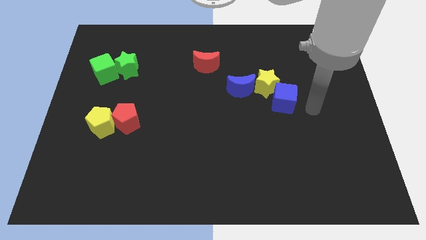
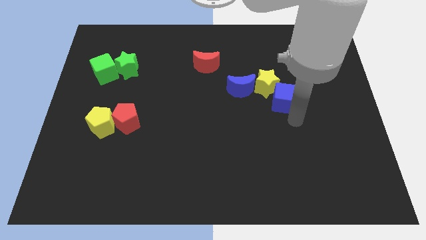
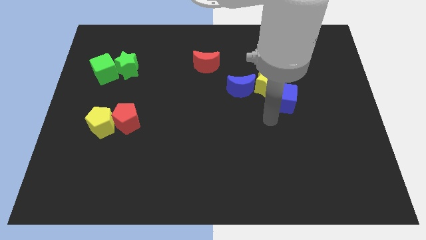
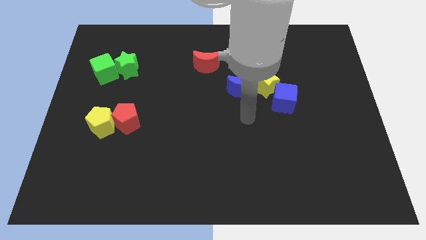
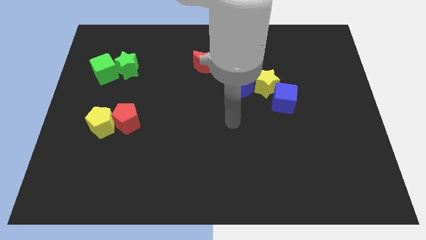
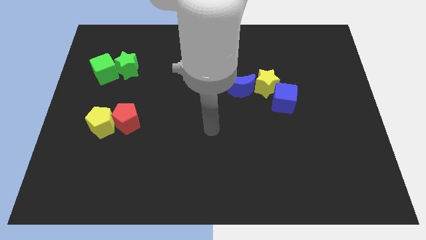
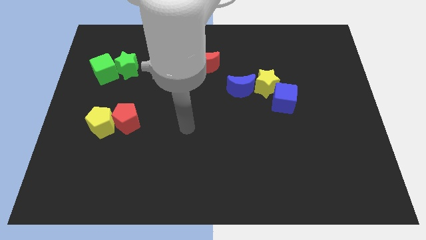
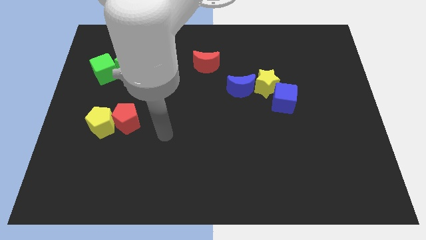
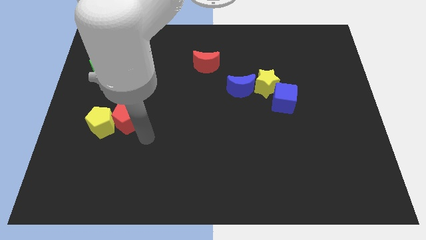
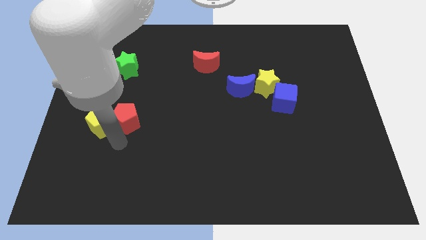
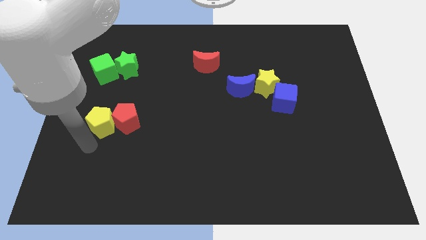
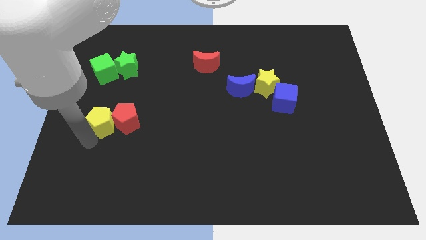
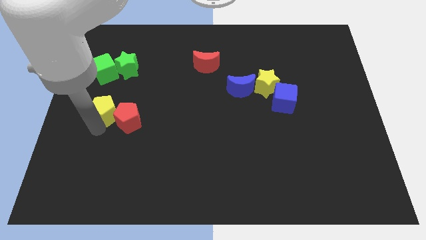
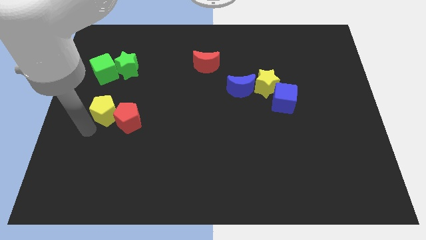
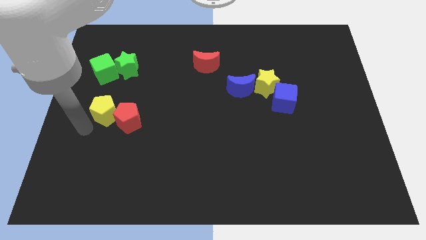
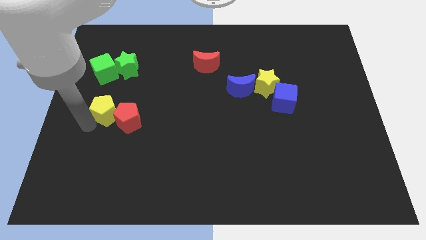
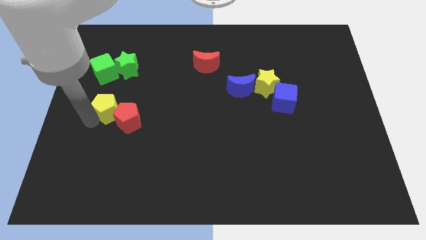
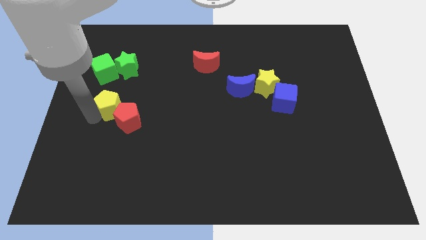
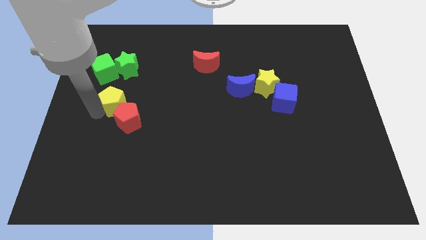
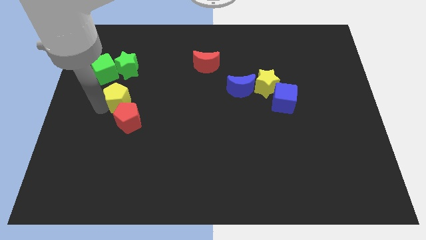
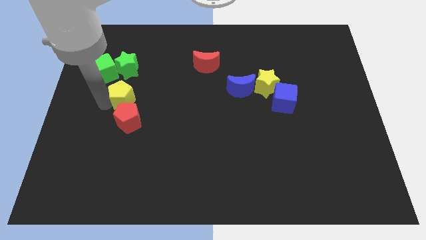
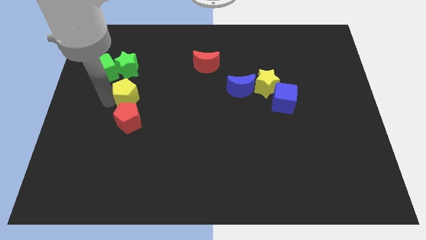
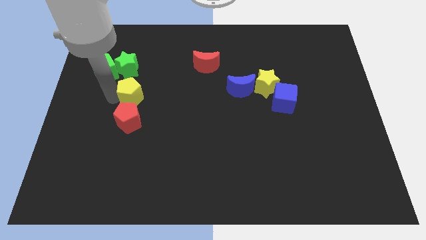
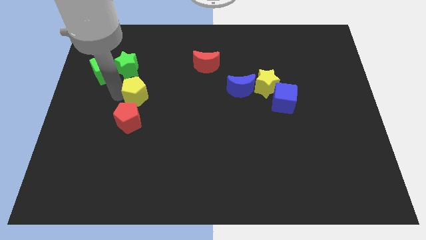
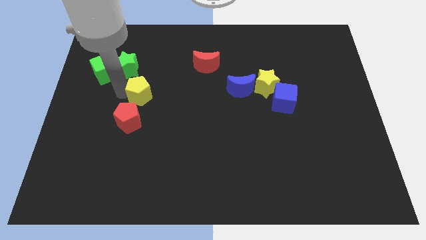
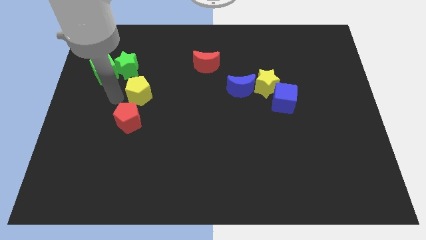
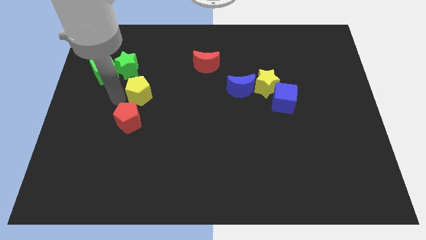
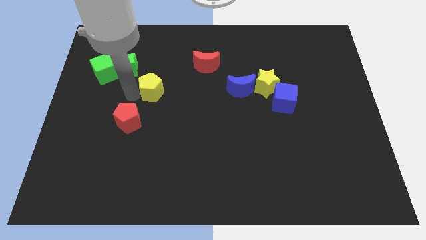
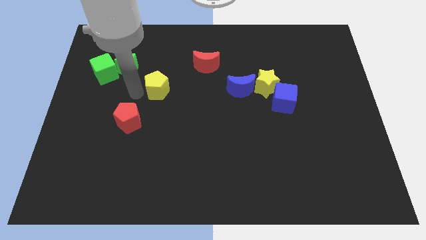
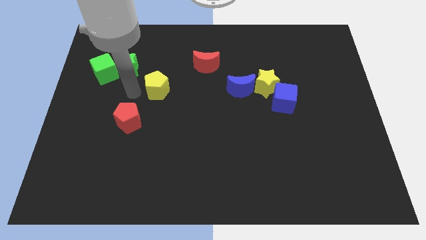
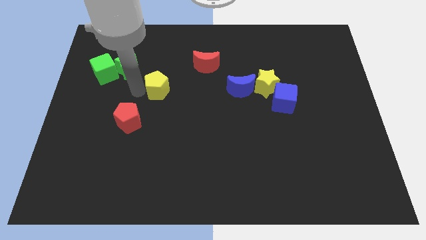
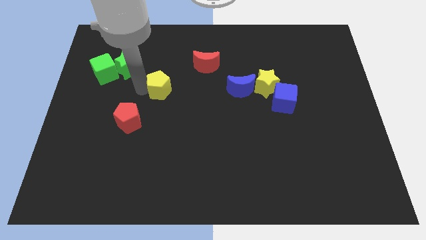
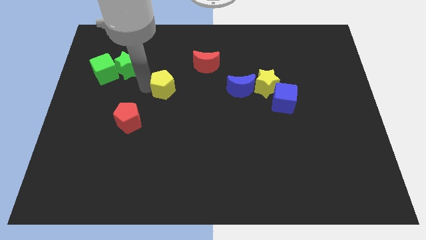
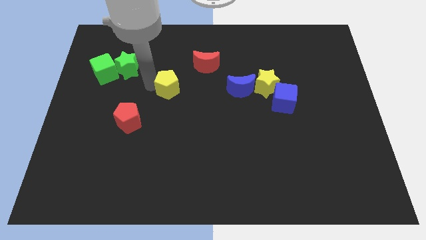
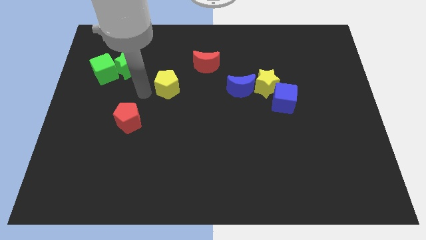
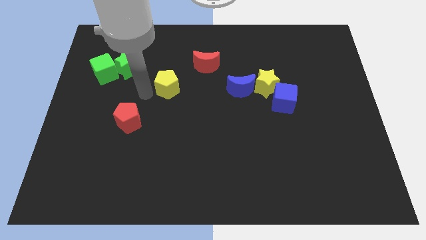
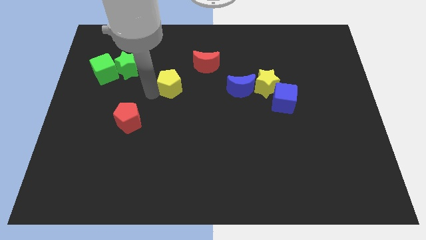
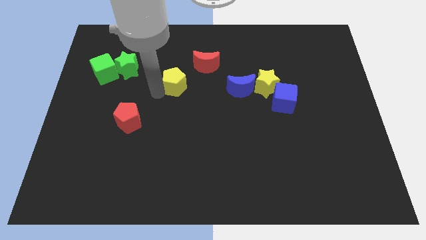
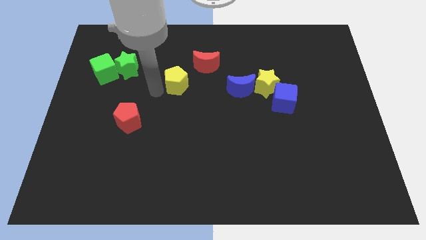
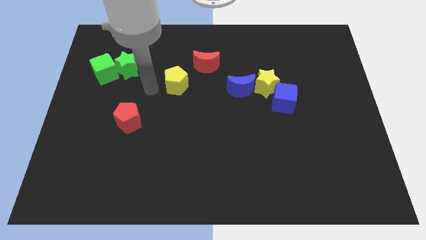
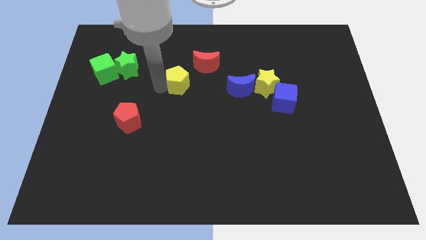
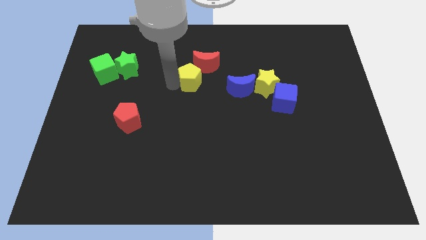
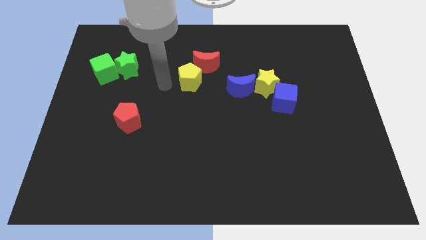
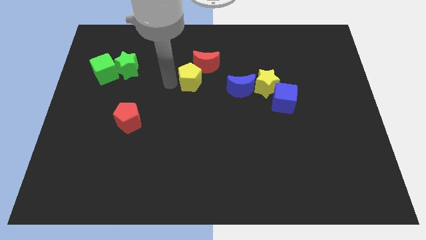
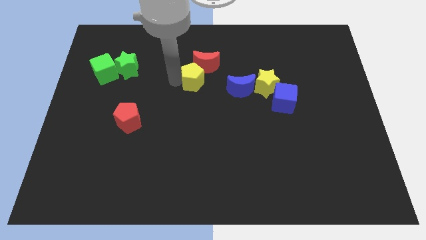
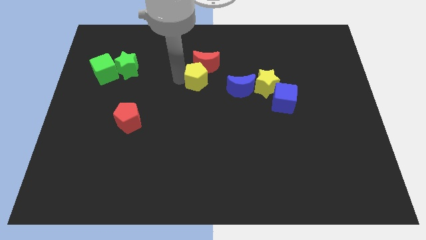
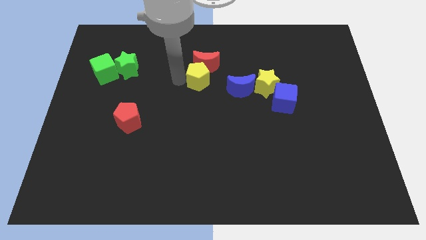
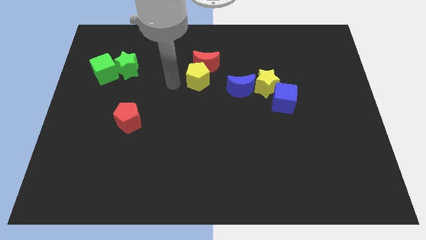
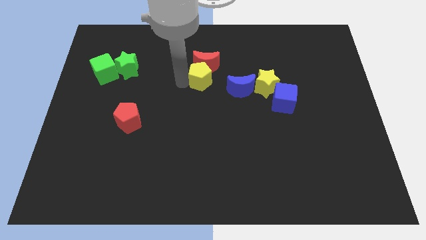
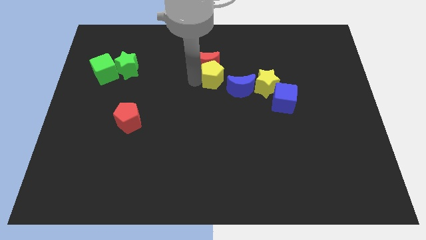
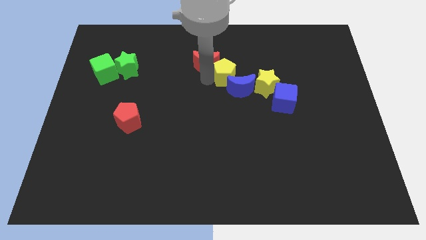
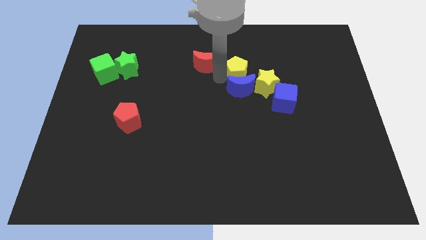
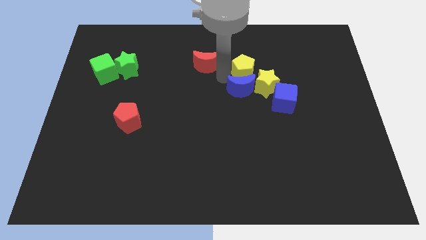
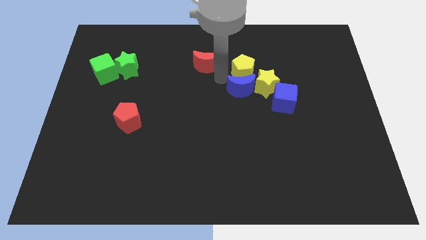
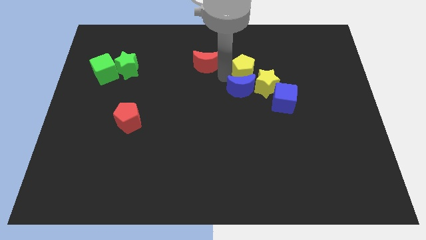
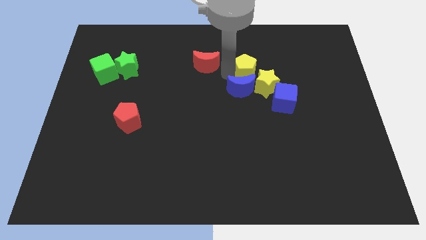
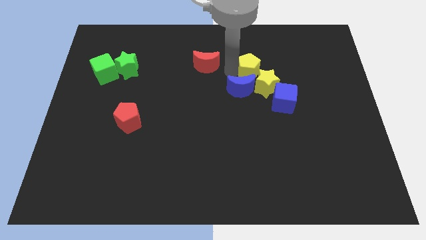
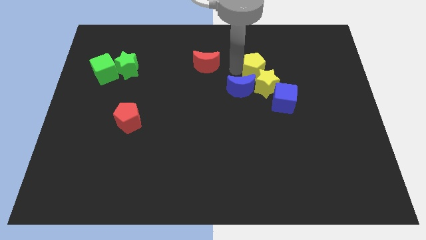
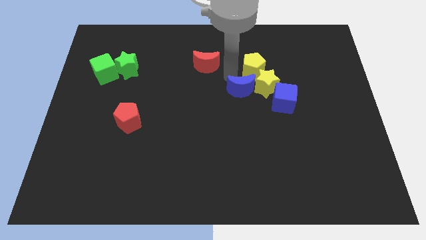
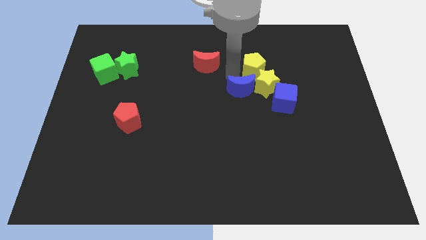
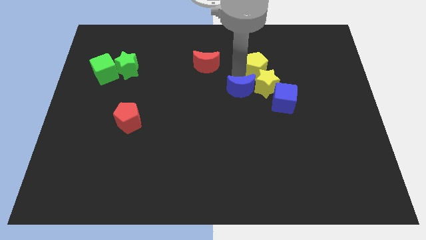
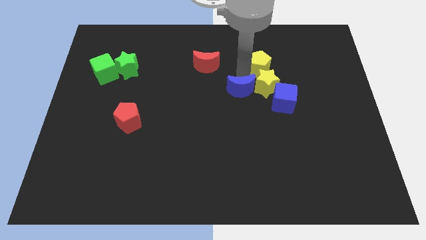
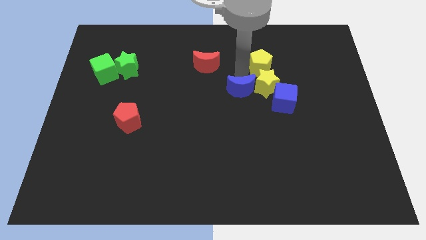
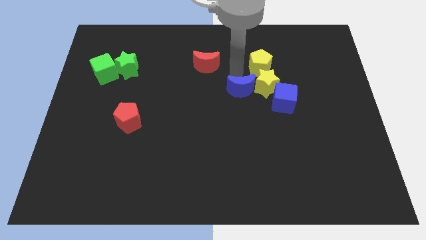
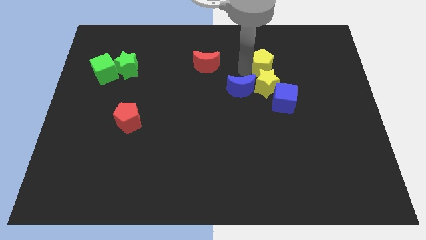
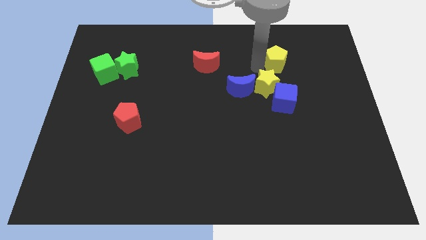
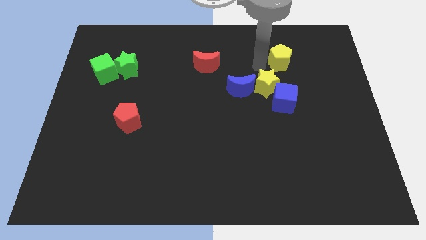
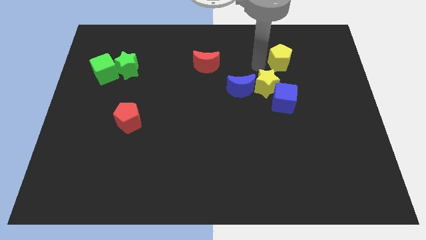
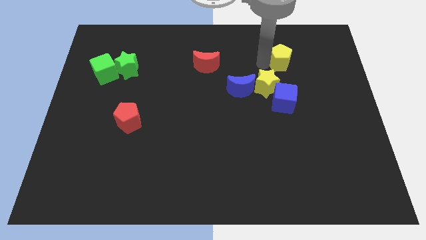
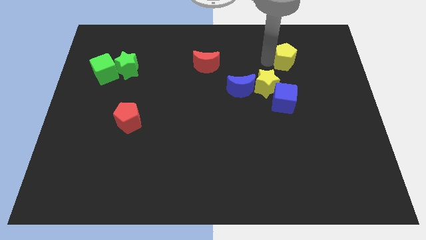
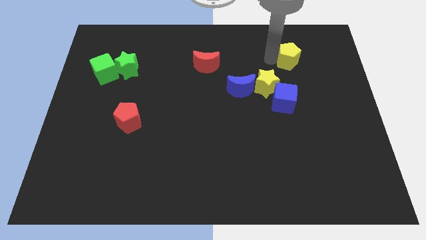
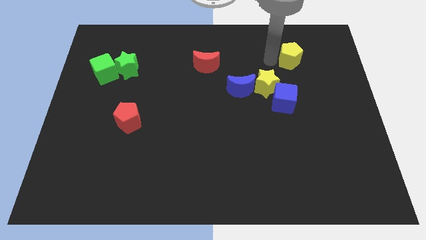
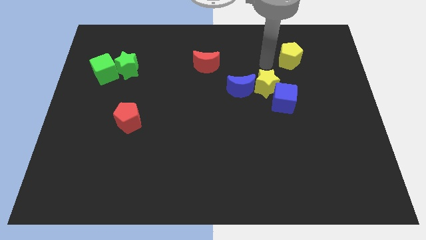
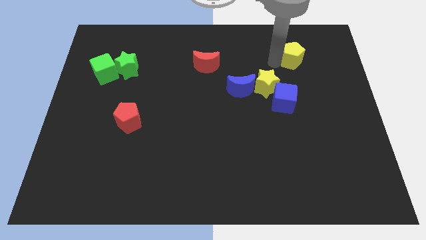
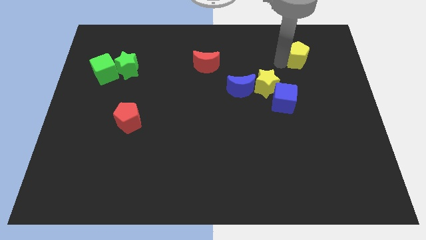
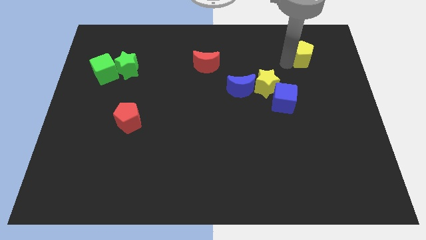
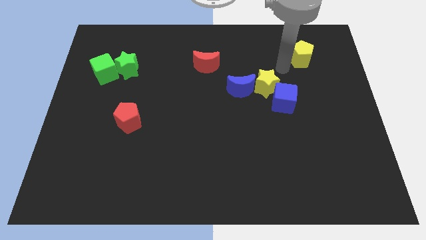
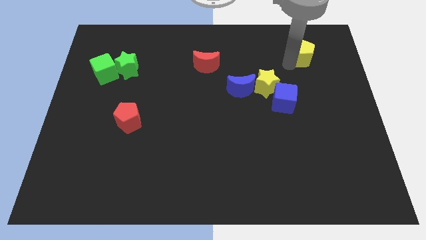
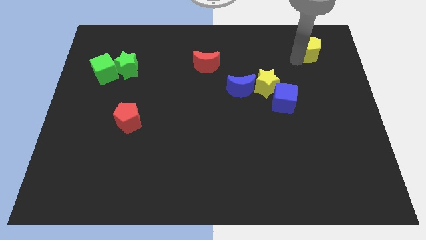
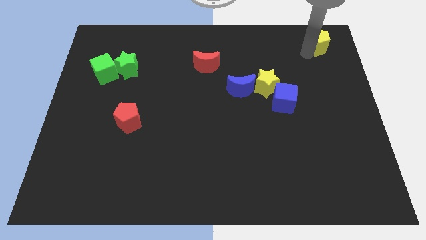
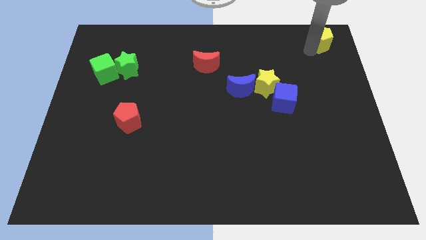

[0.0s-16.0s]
move the yellow pentagon to the top right corner
